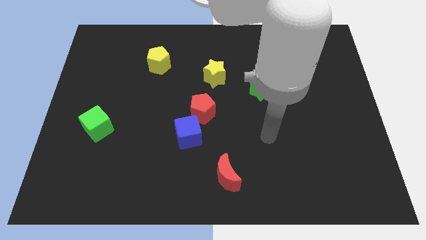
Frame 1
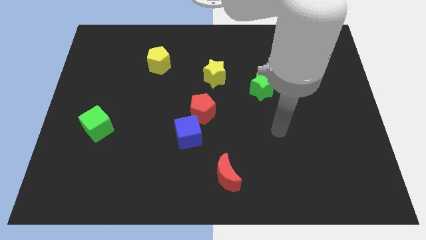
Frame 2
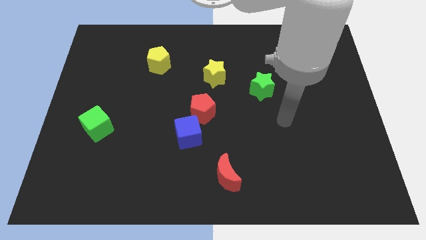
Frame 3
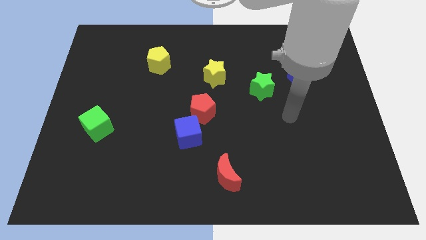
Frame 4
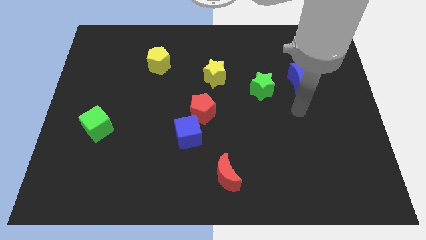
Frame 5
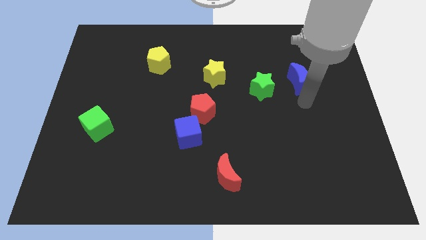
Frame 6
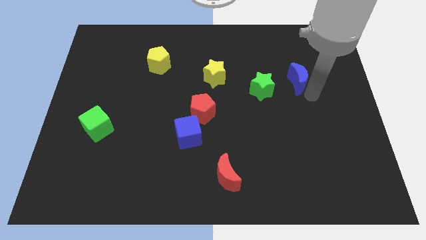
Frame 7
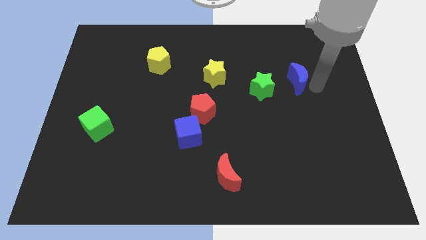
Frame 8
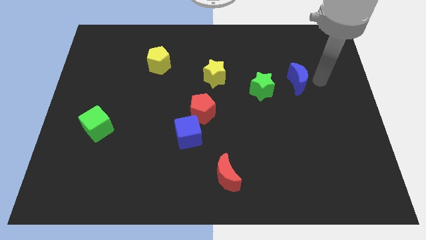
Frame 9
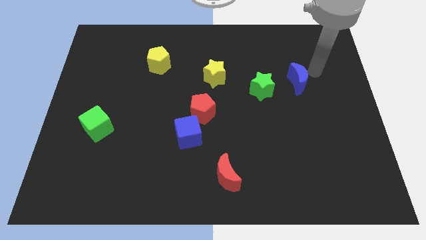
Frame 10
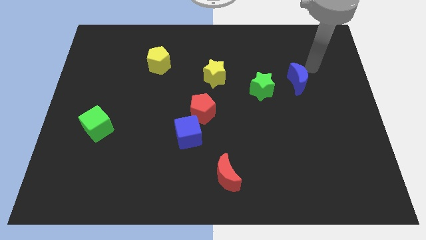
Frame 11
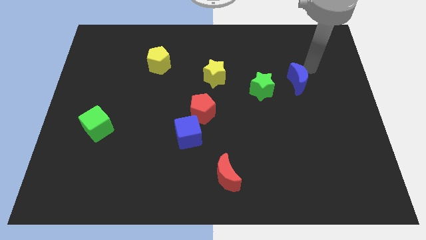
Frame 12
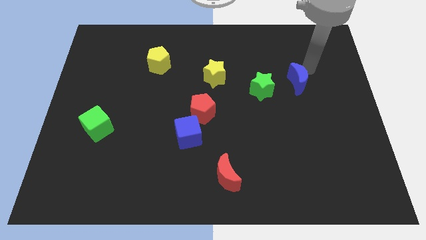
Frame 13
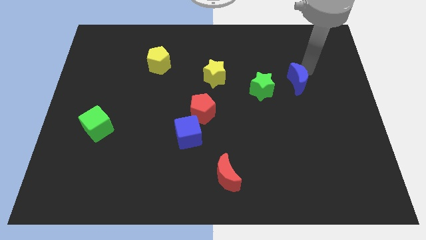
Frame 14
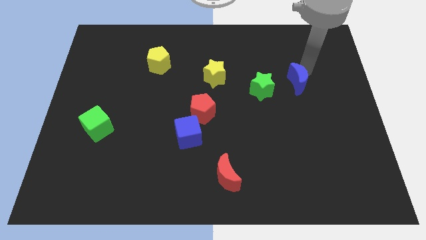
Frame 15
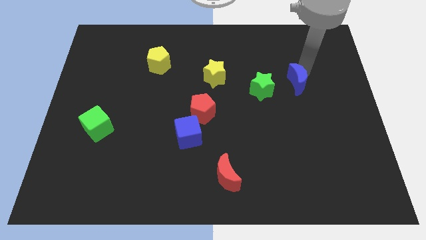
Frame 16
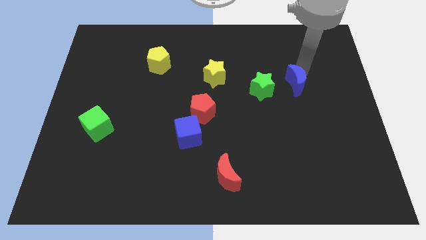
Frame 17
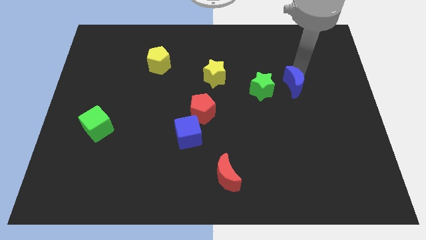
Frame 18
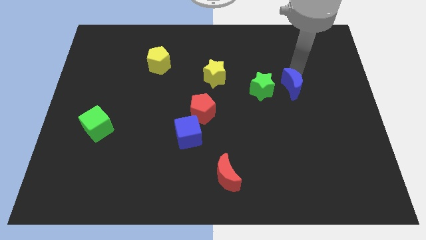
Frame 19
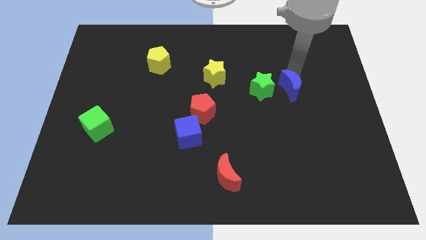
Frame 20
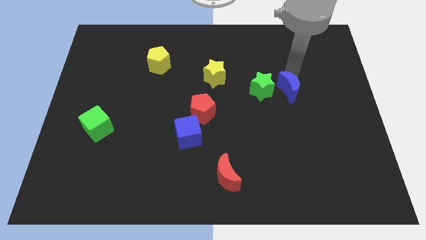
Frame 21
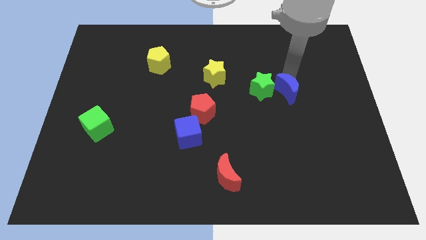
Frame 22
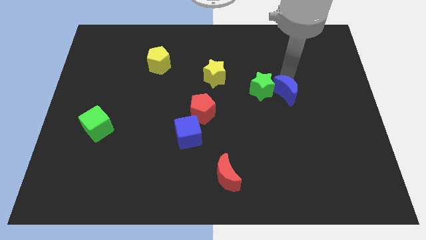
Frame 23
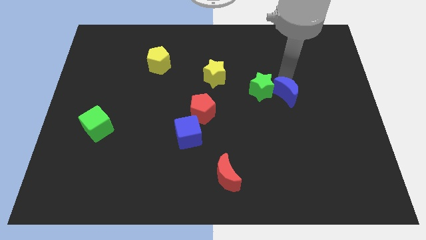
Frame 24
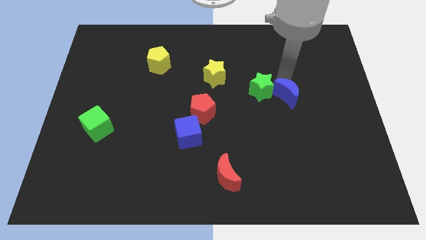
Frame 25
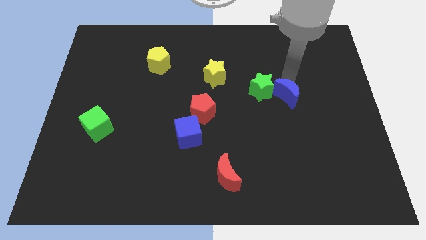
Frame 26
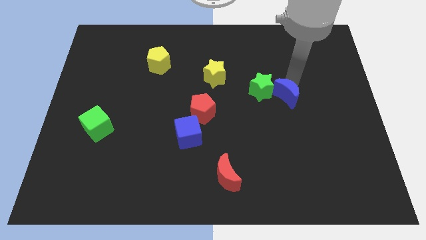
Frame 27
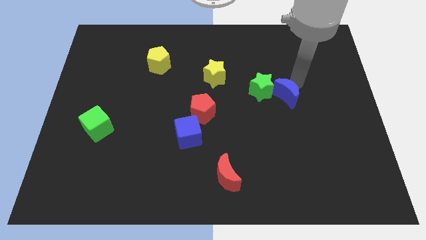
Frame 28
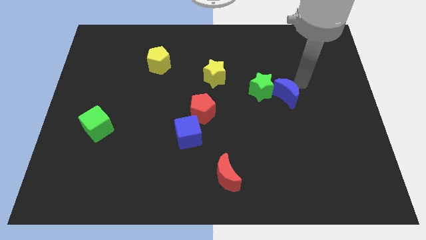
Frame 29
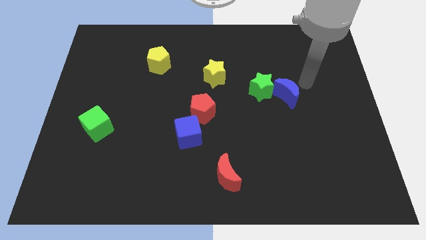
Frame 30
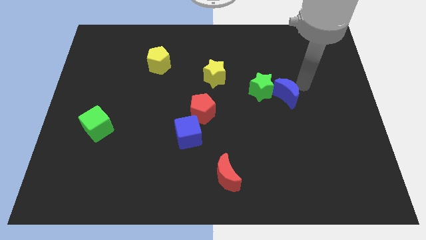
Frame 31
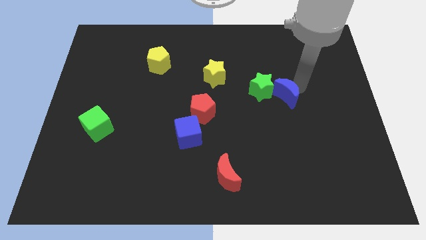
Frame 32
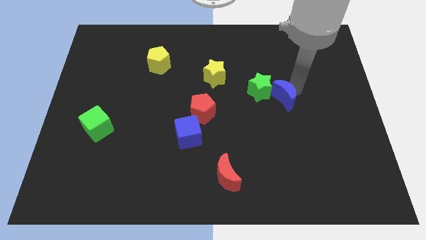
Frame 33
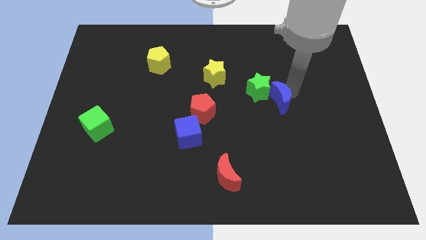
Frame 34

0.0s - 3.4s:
push the blue moon a little bit down and then left

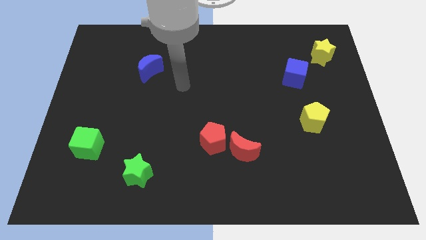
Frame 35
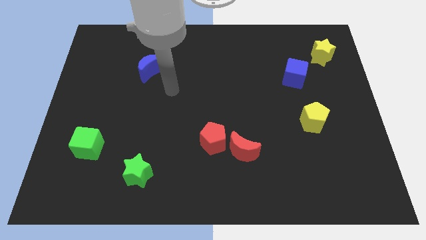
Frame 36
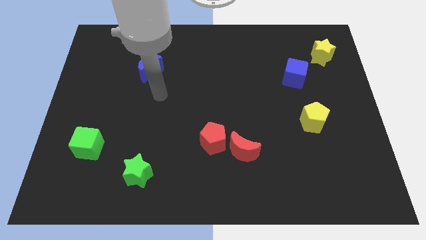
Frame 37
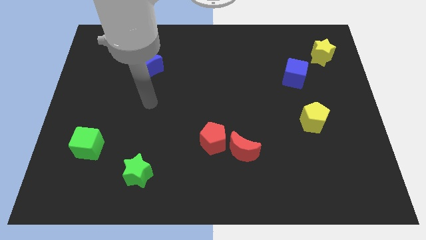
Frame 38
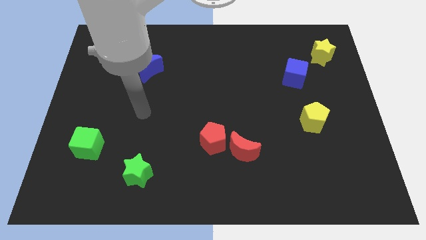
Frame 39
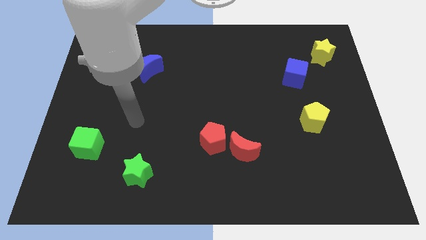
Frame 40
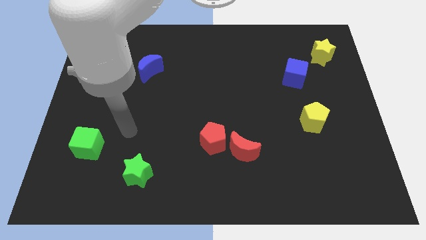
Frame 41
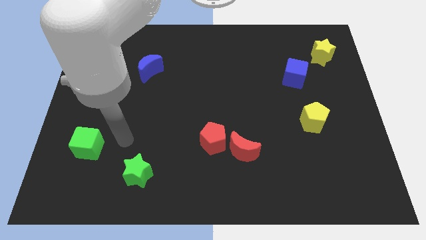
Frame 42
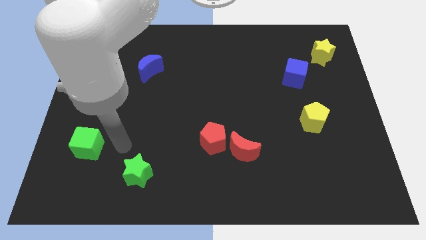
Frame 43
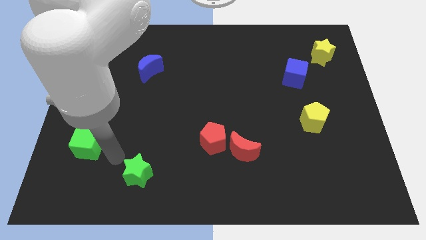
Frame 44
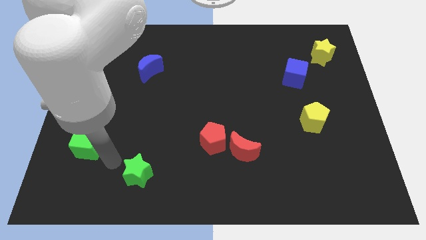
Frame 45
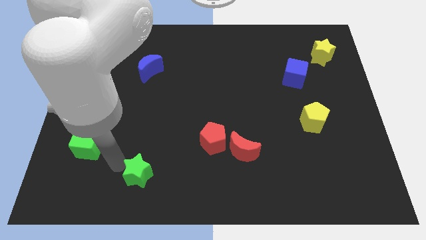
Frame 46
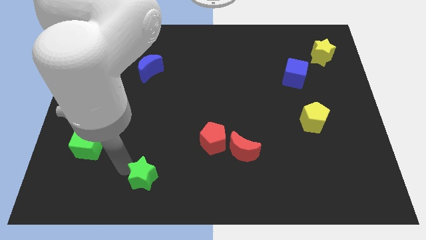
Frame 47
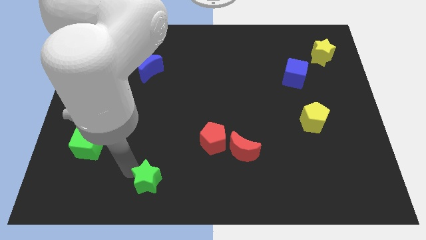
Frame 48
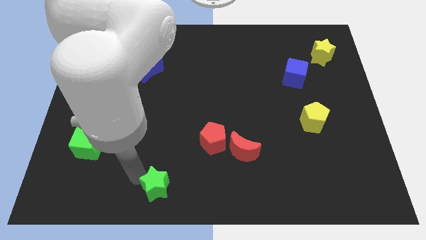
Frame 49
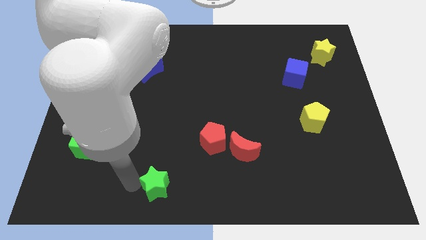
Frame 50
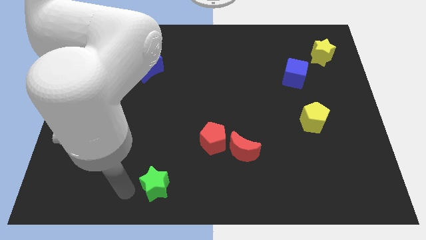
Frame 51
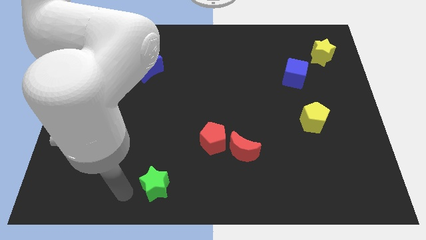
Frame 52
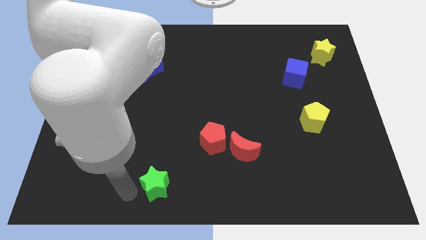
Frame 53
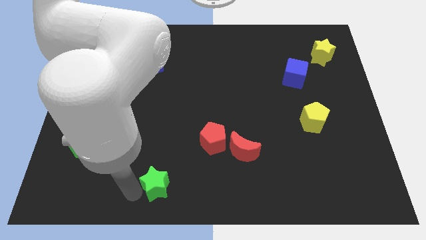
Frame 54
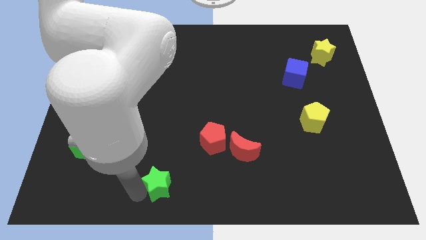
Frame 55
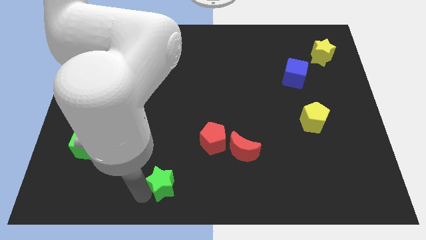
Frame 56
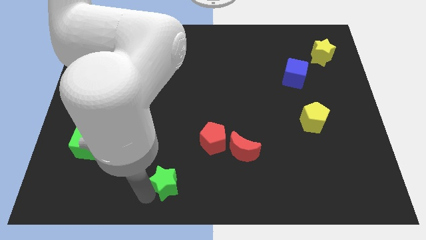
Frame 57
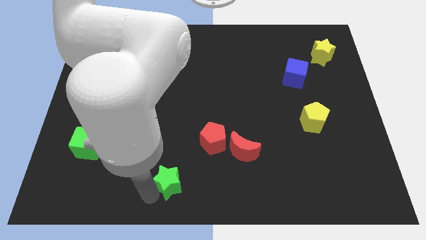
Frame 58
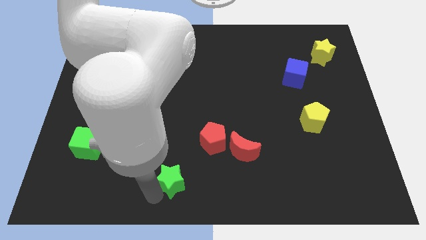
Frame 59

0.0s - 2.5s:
slightly move the green star to the right

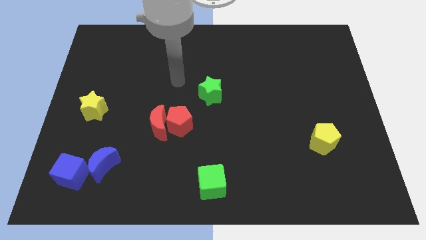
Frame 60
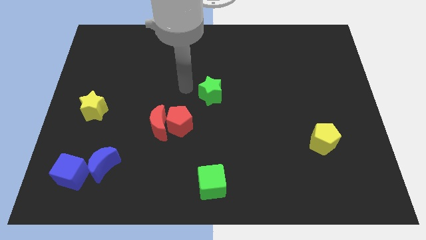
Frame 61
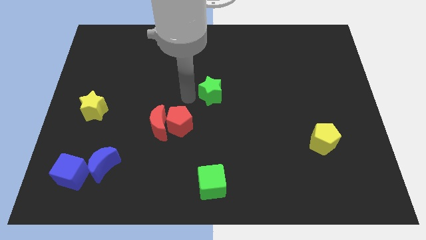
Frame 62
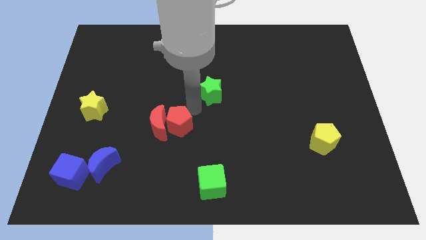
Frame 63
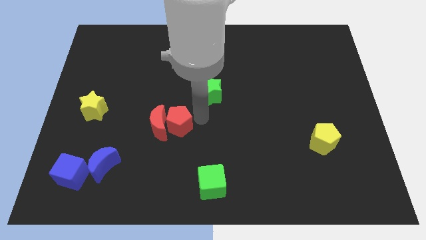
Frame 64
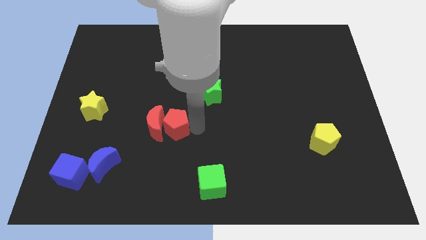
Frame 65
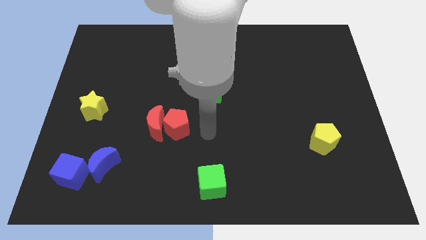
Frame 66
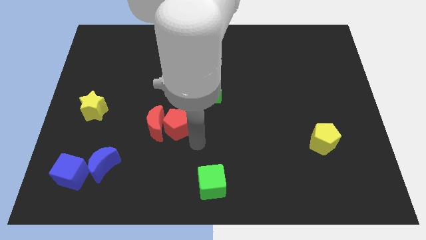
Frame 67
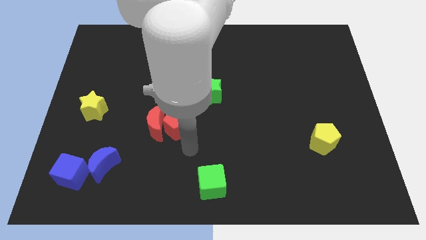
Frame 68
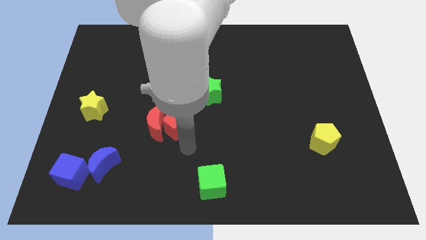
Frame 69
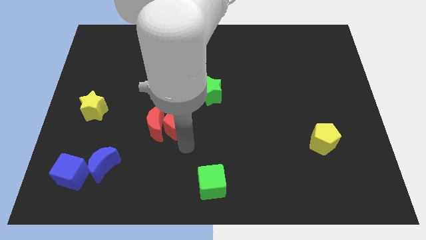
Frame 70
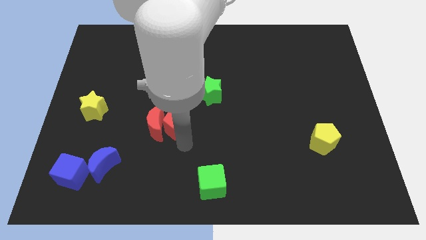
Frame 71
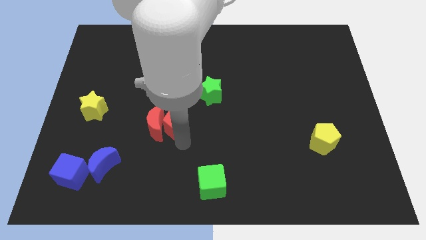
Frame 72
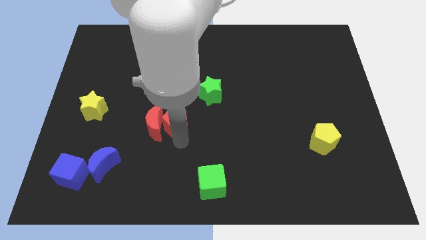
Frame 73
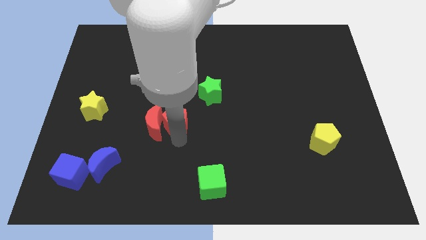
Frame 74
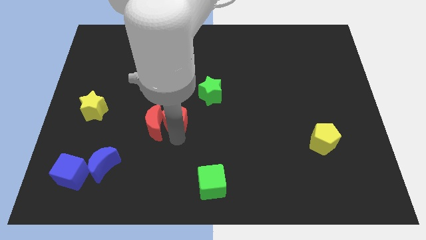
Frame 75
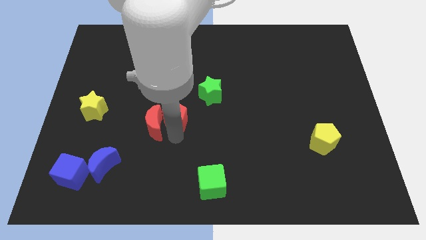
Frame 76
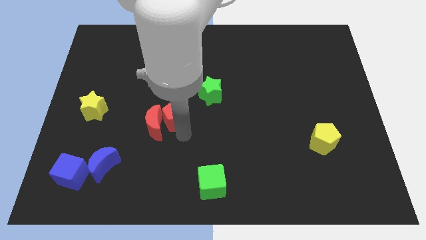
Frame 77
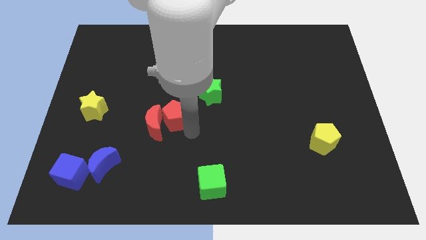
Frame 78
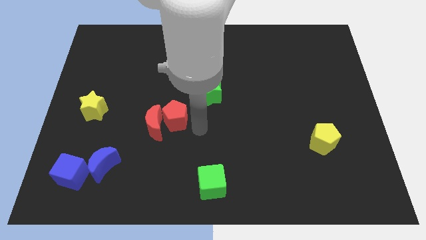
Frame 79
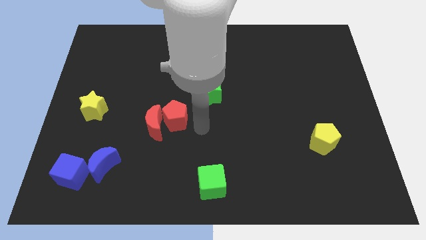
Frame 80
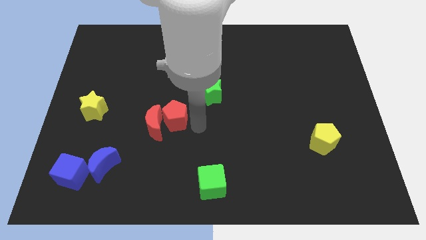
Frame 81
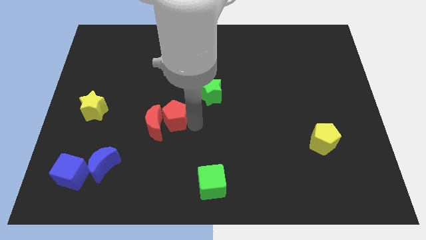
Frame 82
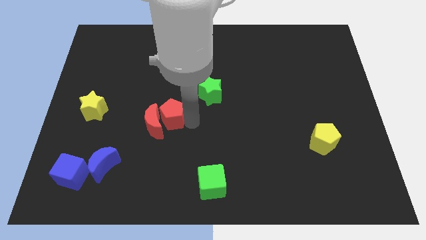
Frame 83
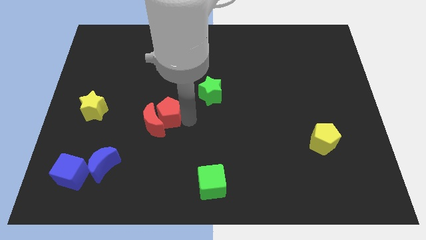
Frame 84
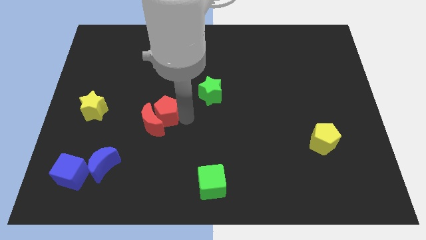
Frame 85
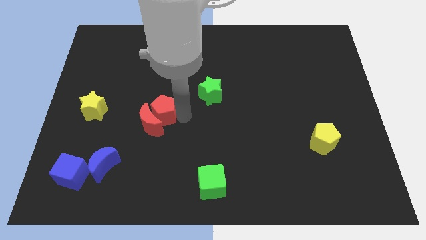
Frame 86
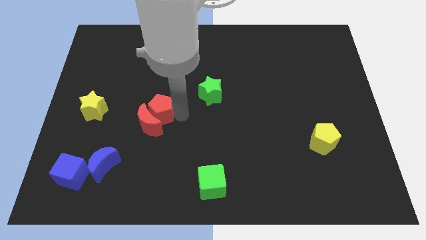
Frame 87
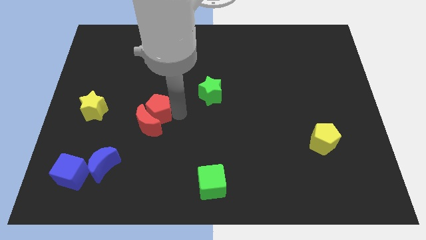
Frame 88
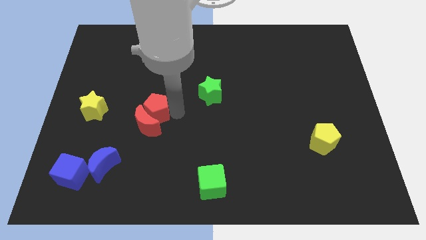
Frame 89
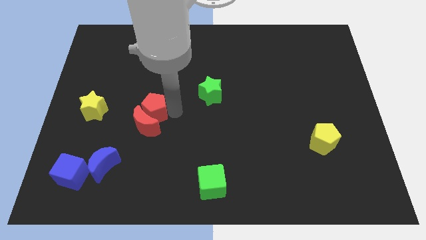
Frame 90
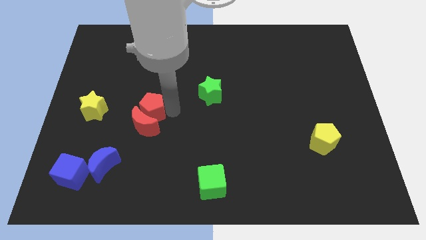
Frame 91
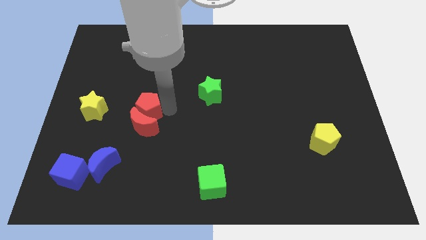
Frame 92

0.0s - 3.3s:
slide the red pentagon a little bit to the left
